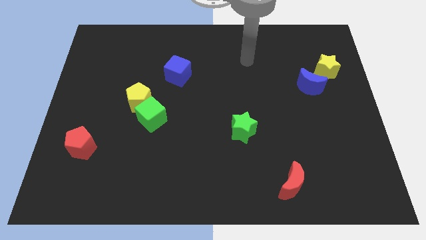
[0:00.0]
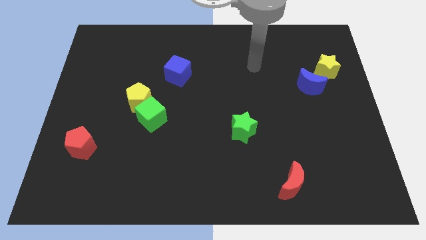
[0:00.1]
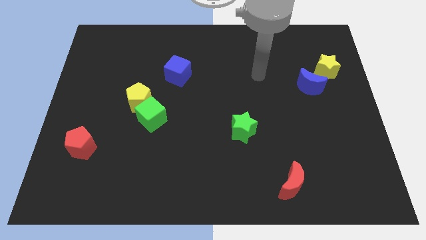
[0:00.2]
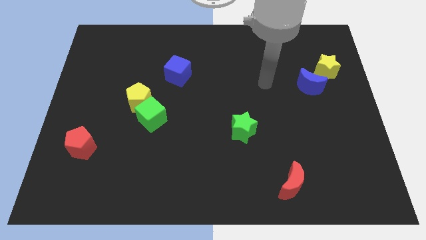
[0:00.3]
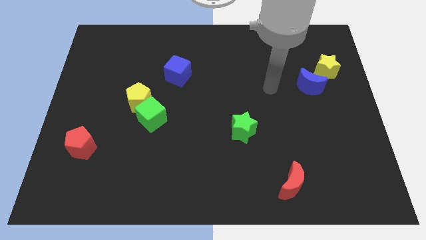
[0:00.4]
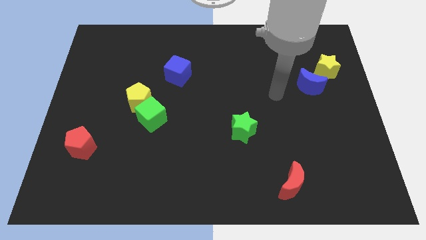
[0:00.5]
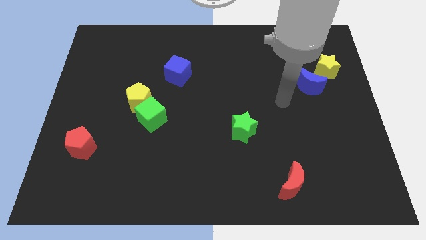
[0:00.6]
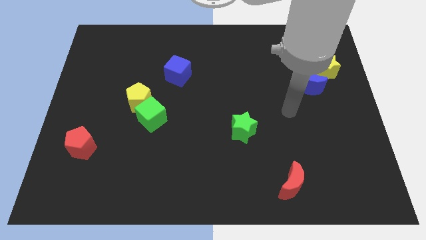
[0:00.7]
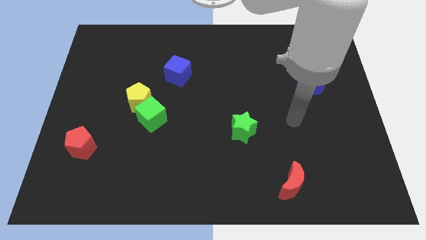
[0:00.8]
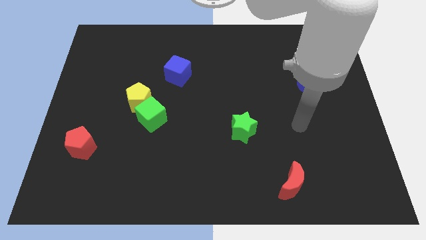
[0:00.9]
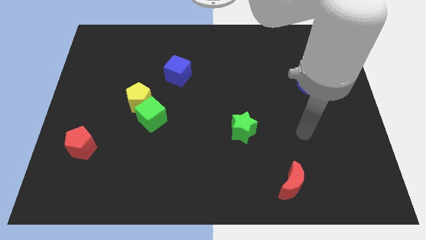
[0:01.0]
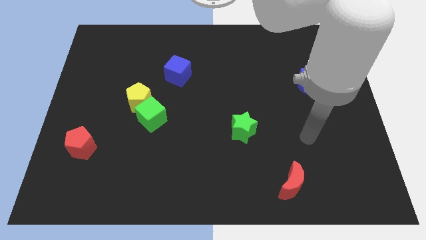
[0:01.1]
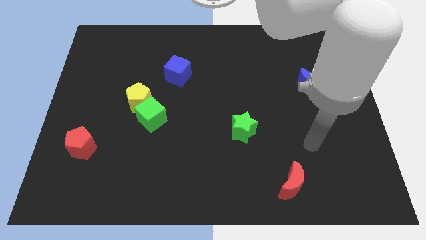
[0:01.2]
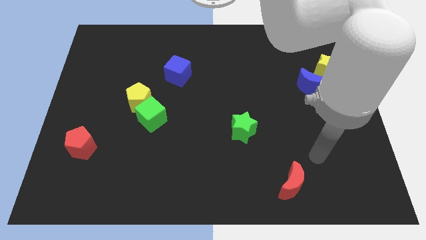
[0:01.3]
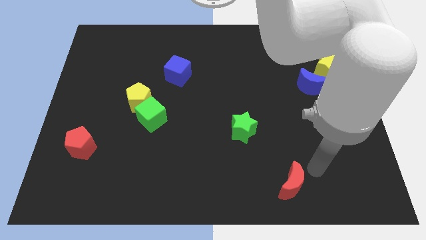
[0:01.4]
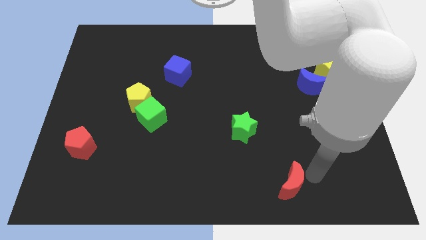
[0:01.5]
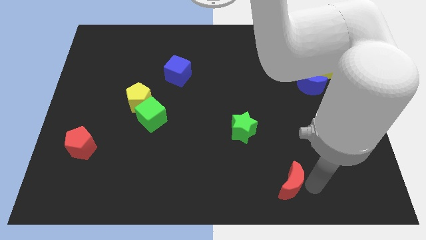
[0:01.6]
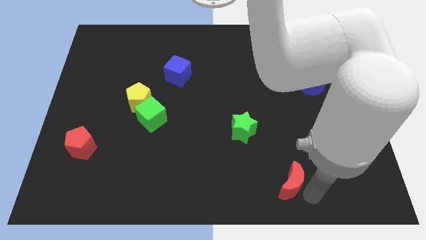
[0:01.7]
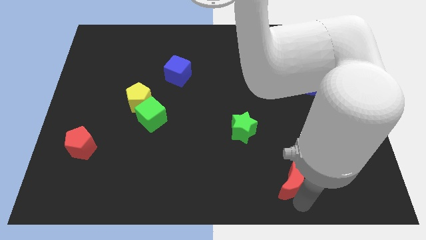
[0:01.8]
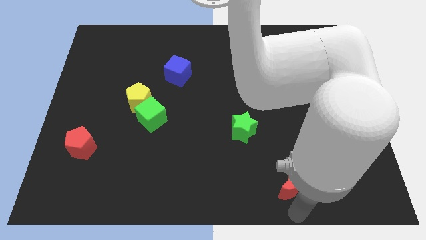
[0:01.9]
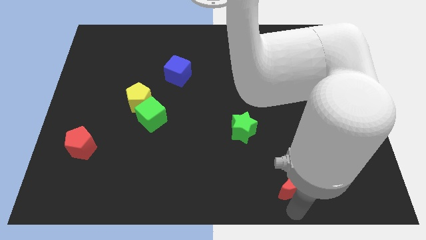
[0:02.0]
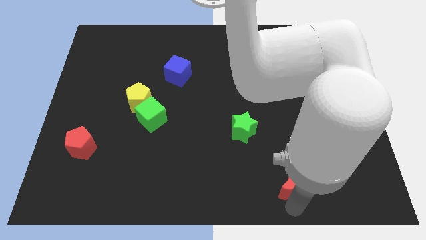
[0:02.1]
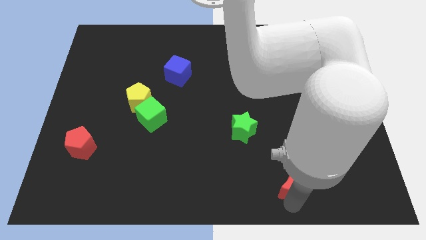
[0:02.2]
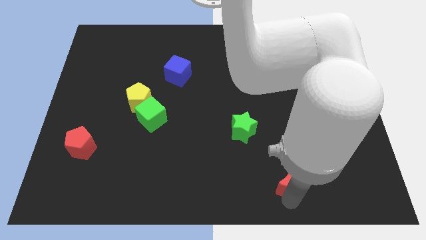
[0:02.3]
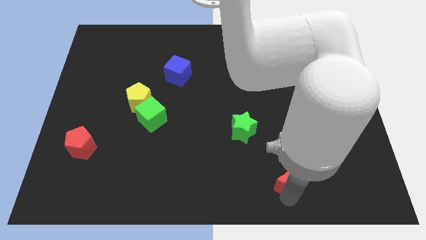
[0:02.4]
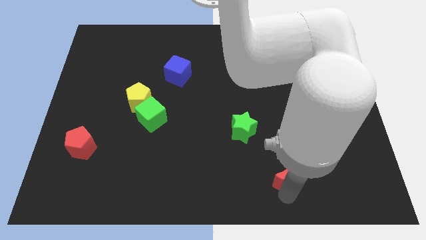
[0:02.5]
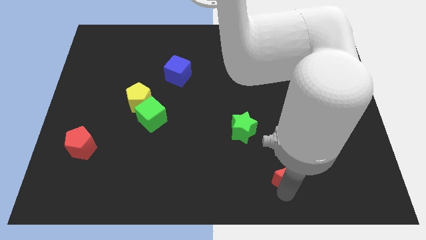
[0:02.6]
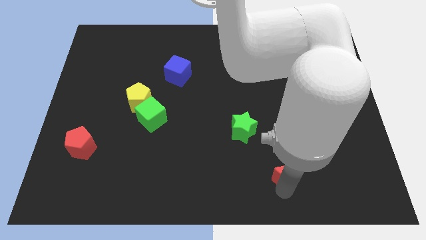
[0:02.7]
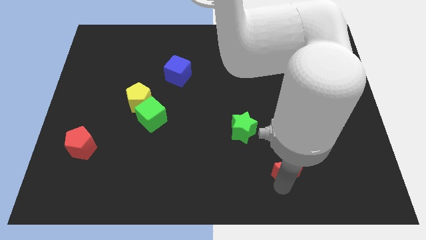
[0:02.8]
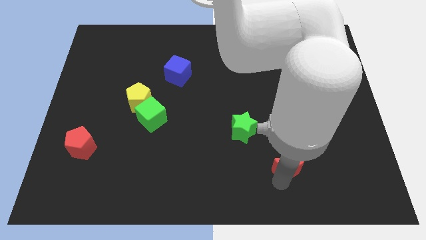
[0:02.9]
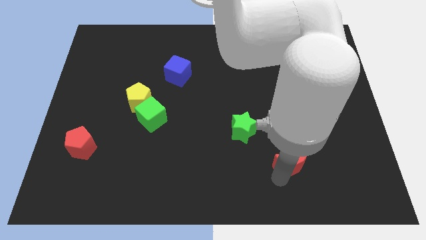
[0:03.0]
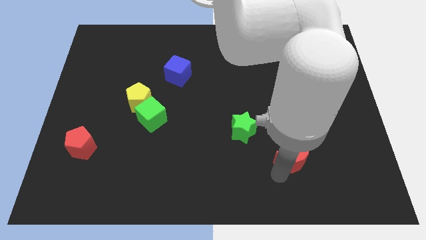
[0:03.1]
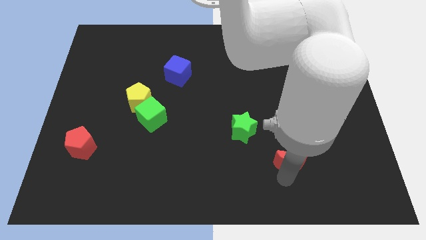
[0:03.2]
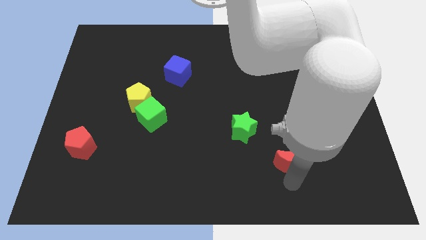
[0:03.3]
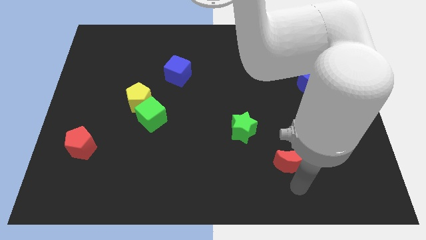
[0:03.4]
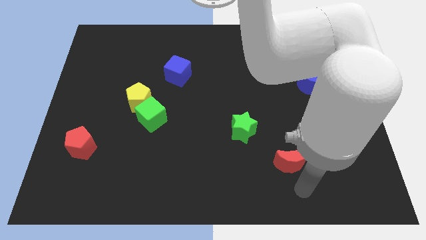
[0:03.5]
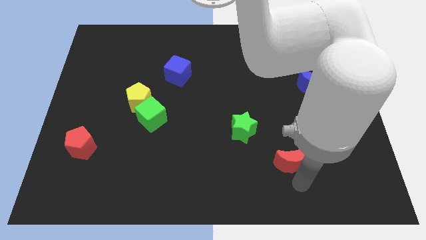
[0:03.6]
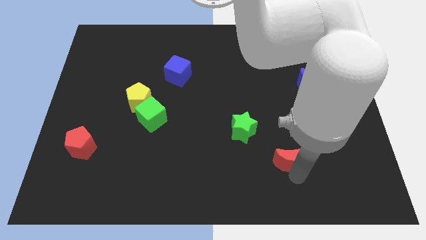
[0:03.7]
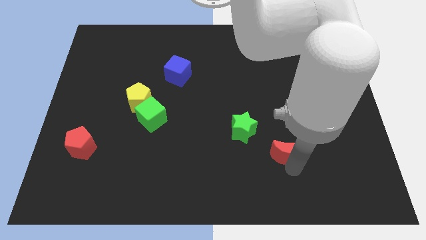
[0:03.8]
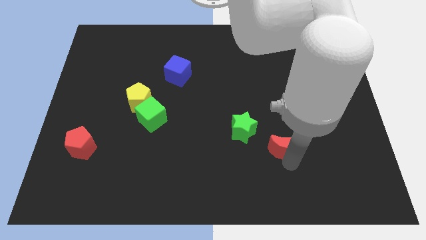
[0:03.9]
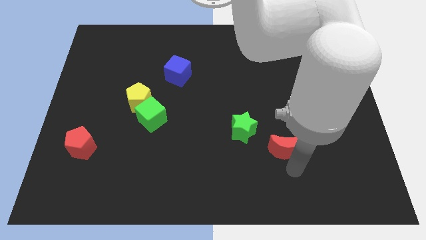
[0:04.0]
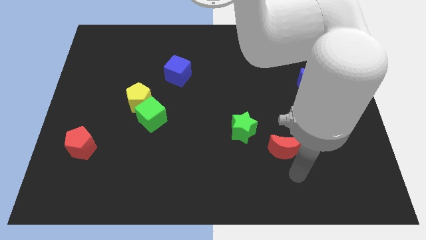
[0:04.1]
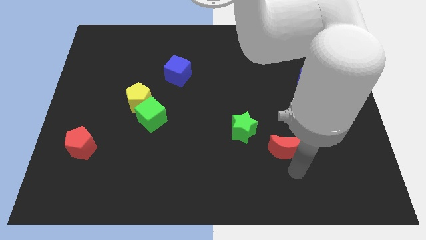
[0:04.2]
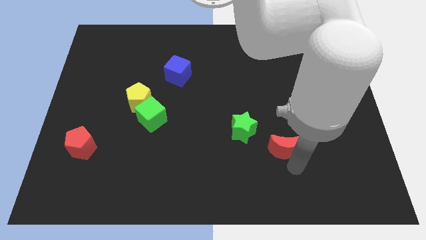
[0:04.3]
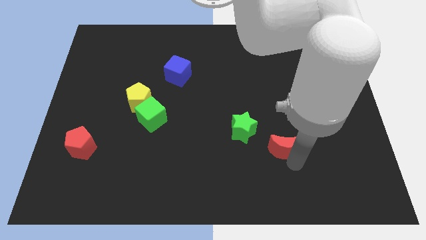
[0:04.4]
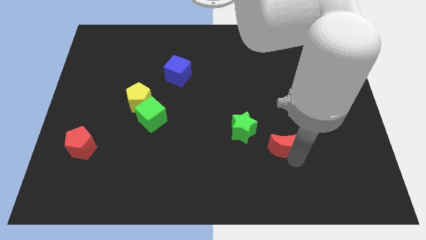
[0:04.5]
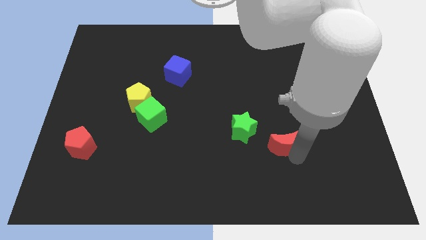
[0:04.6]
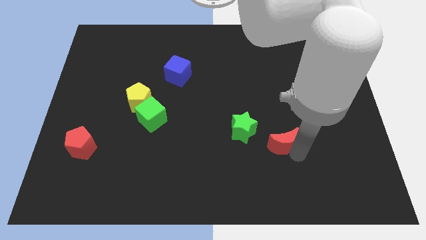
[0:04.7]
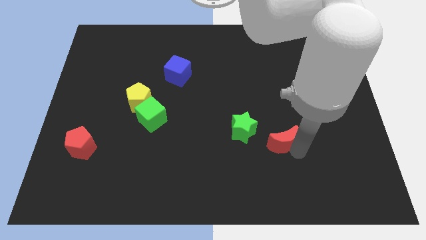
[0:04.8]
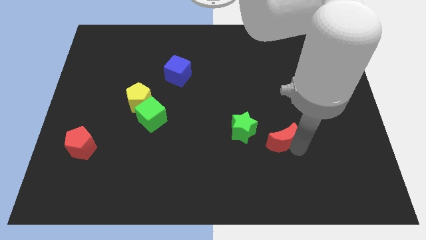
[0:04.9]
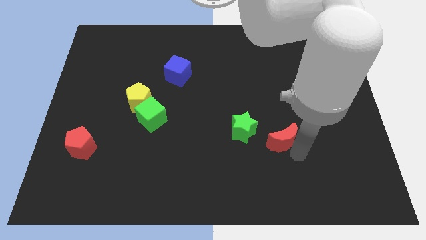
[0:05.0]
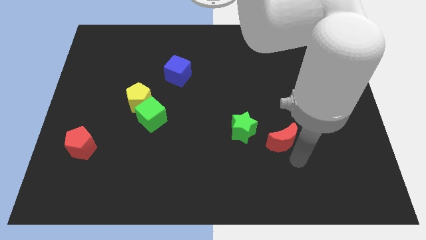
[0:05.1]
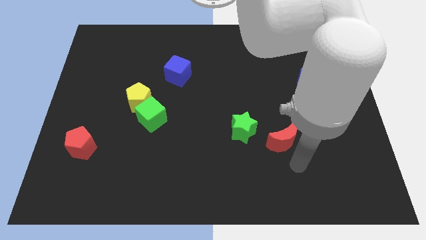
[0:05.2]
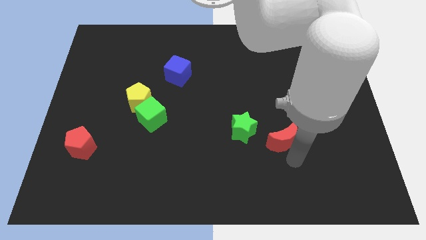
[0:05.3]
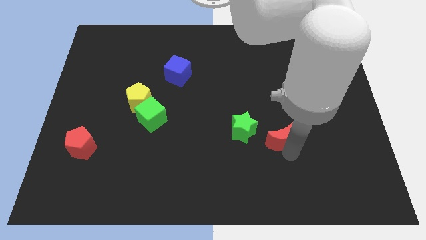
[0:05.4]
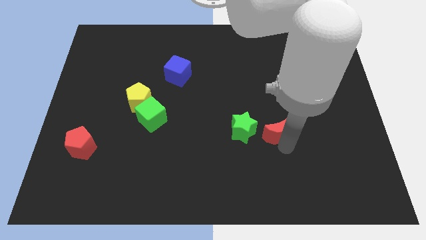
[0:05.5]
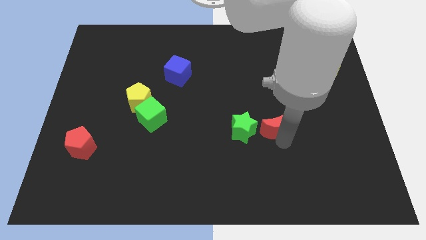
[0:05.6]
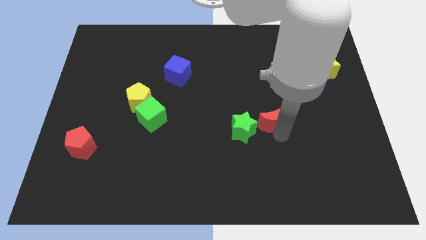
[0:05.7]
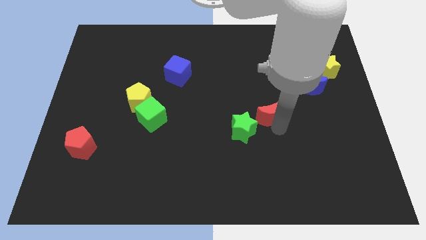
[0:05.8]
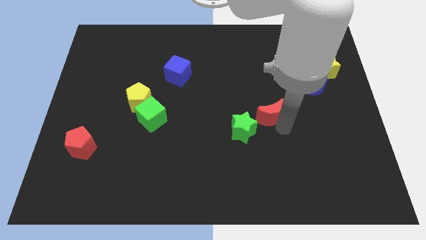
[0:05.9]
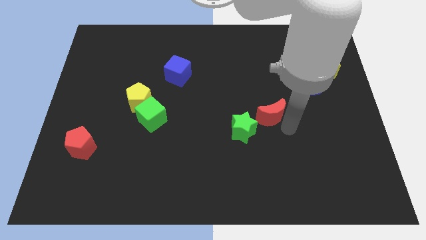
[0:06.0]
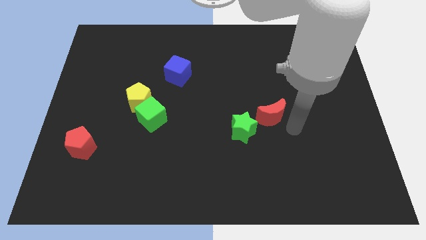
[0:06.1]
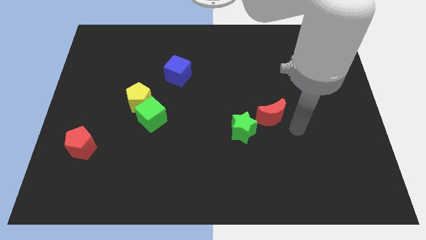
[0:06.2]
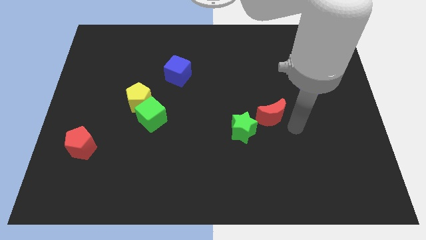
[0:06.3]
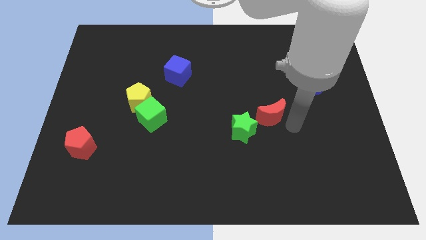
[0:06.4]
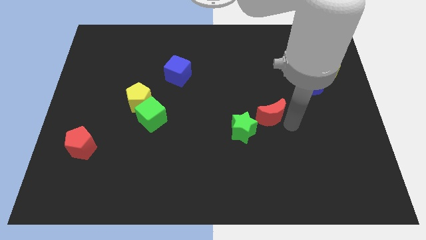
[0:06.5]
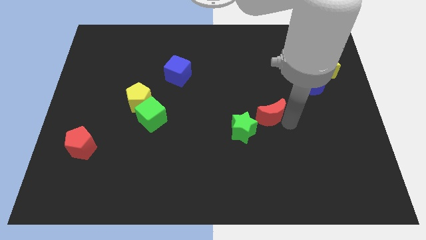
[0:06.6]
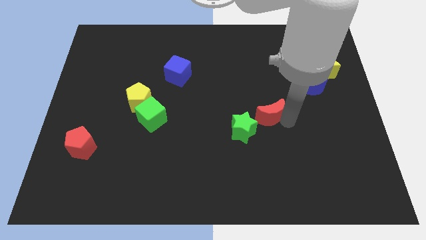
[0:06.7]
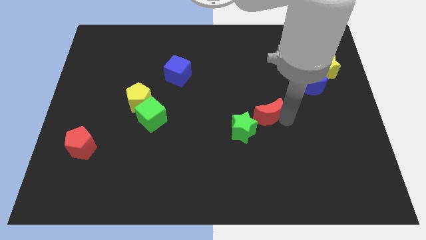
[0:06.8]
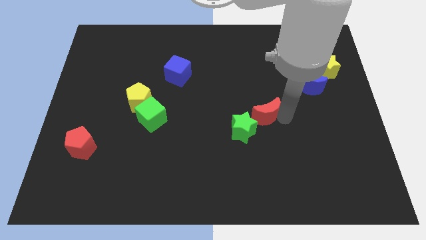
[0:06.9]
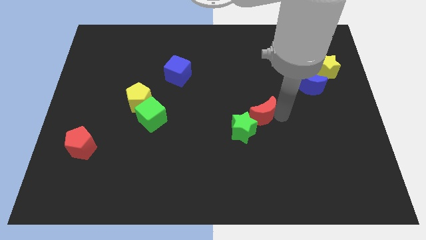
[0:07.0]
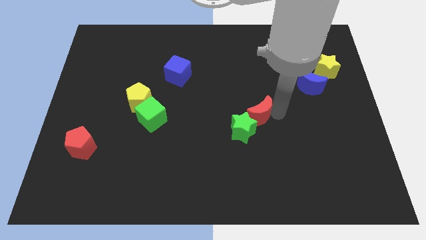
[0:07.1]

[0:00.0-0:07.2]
slide the red moon above the green star
